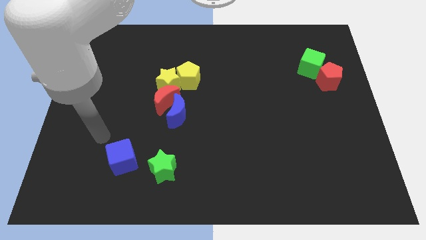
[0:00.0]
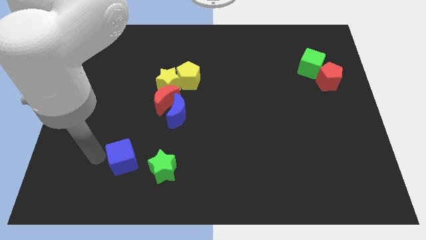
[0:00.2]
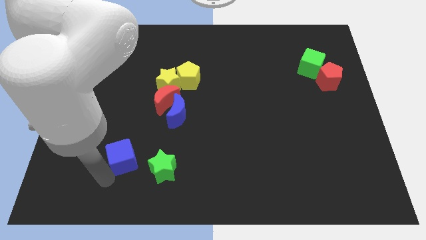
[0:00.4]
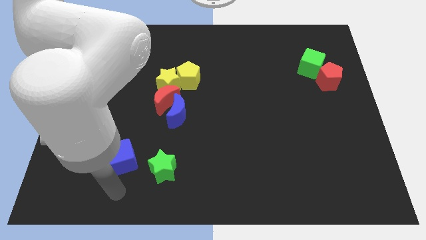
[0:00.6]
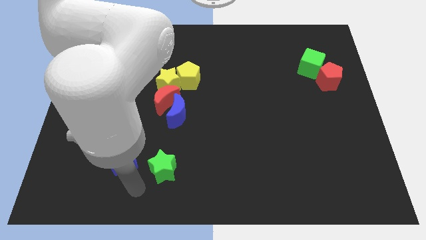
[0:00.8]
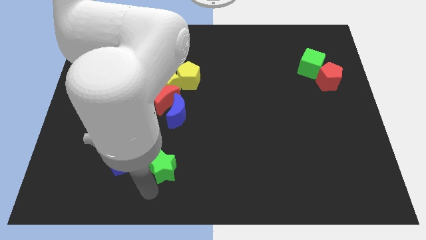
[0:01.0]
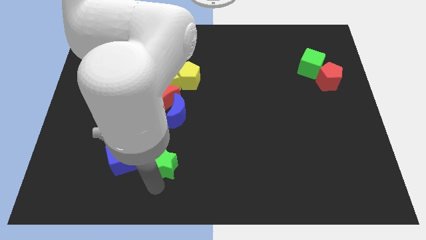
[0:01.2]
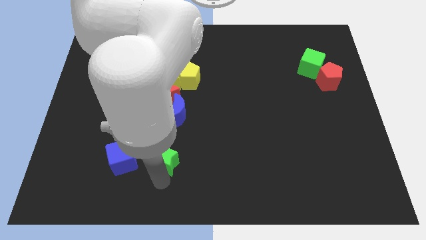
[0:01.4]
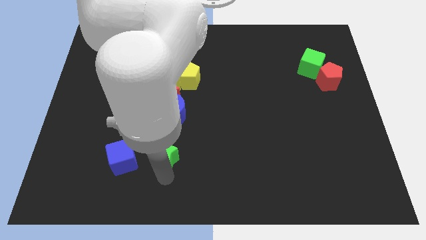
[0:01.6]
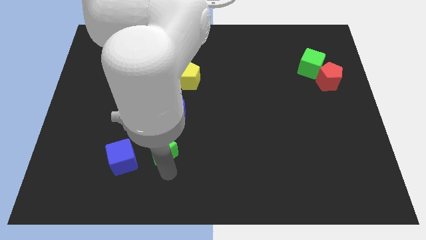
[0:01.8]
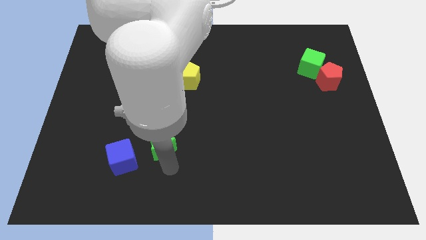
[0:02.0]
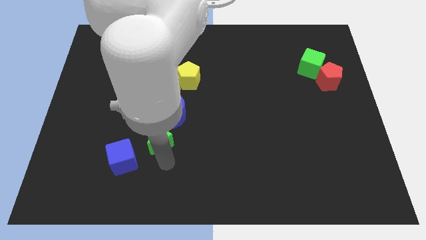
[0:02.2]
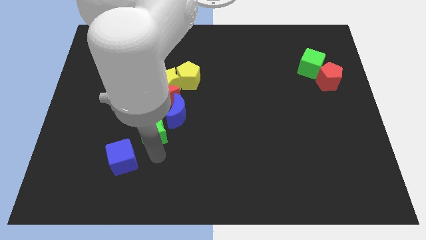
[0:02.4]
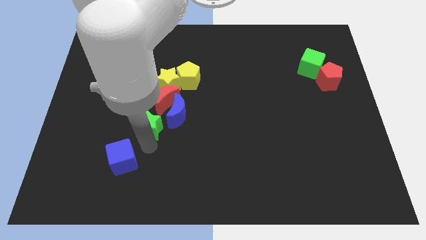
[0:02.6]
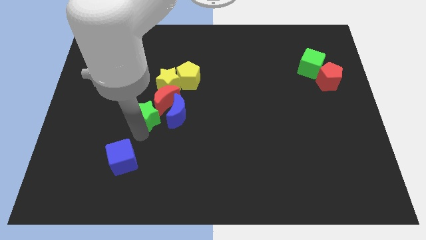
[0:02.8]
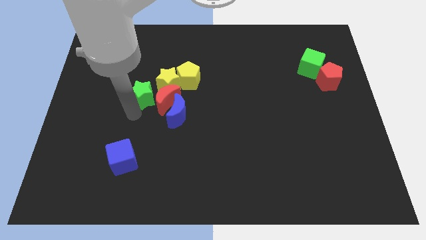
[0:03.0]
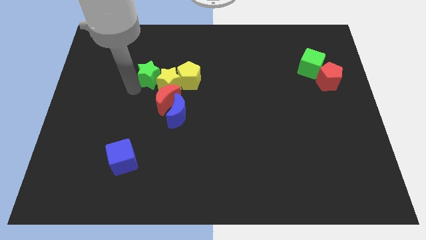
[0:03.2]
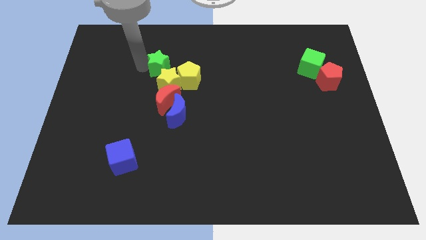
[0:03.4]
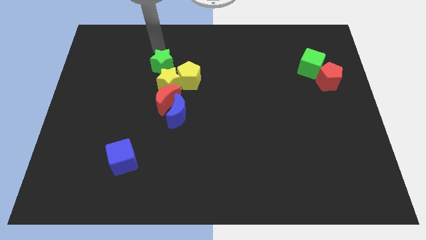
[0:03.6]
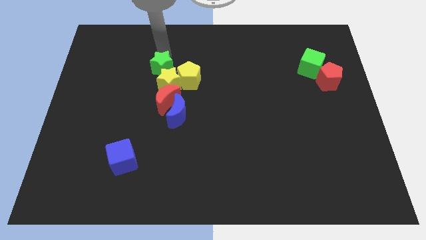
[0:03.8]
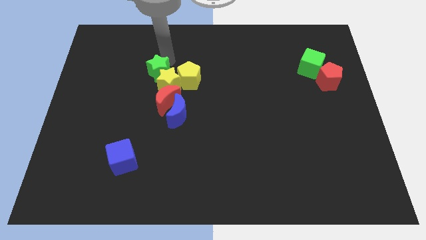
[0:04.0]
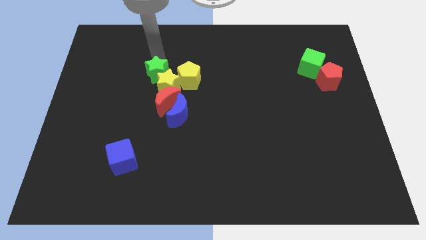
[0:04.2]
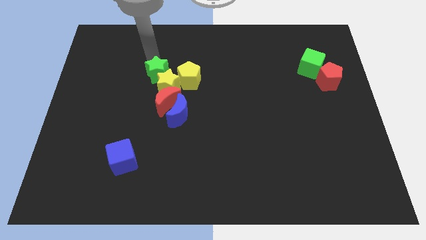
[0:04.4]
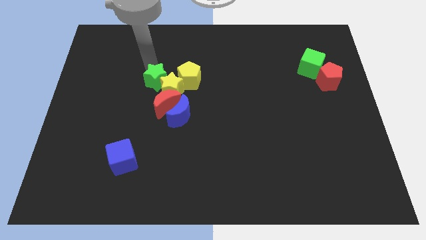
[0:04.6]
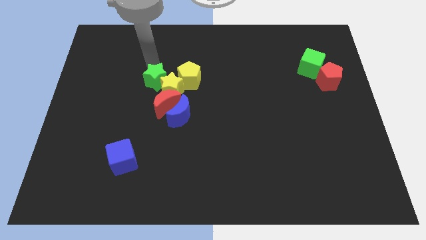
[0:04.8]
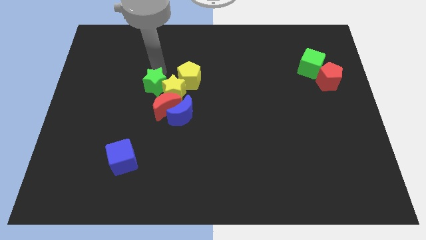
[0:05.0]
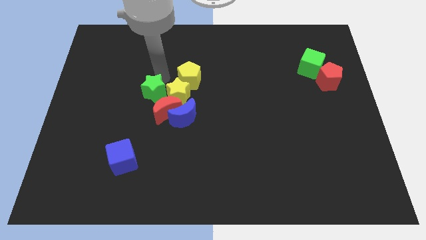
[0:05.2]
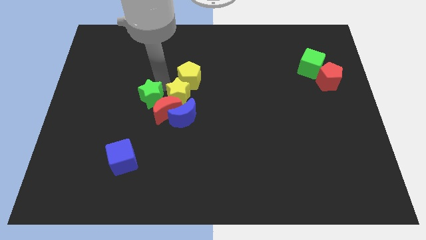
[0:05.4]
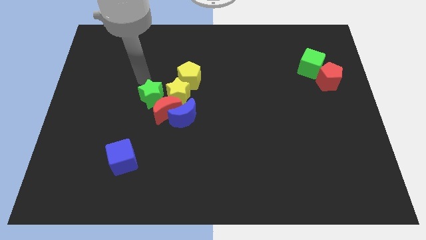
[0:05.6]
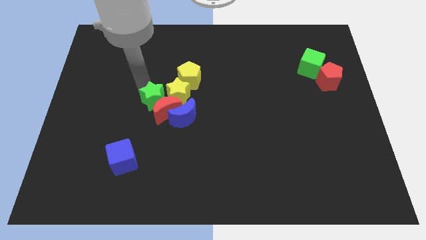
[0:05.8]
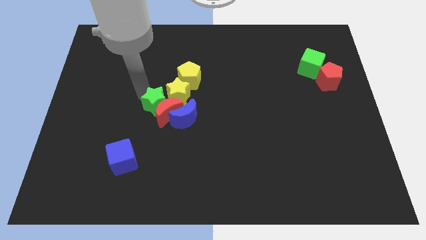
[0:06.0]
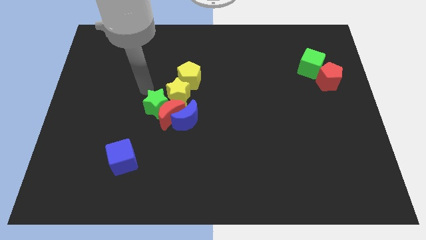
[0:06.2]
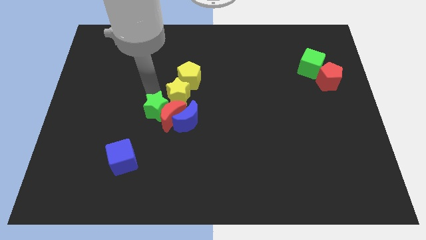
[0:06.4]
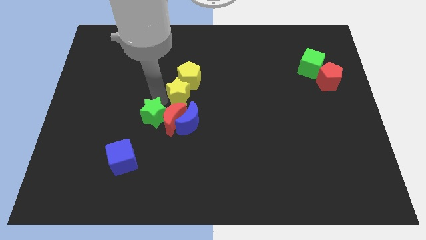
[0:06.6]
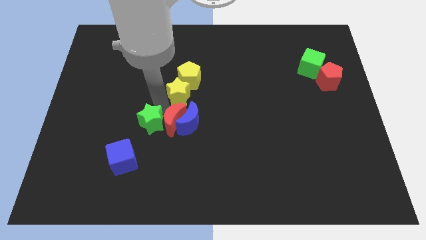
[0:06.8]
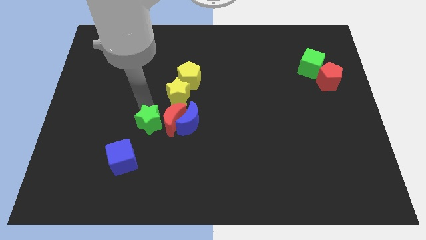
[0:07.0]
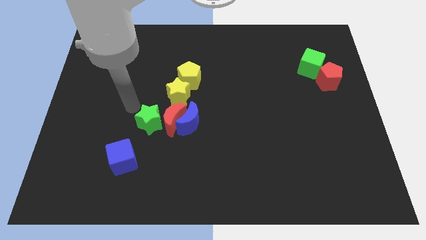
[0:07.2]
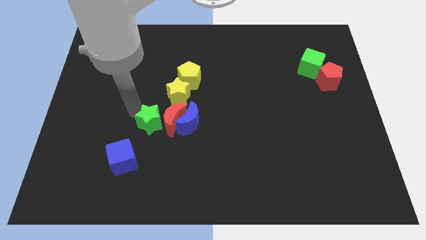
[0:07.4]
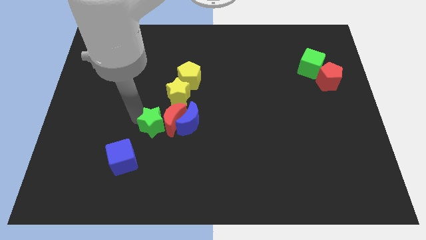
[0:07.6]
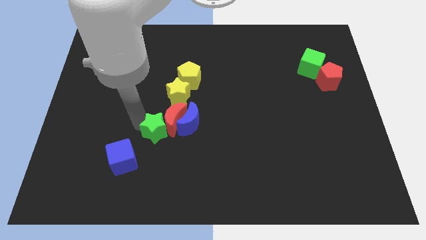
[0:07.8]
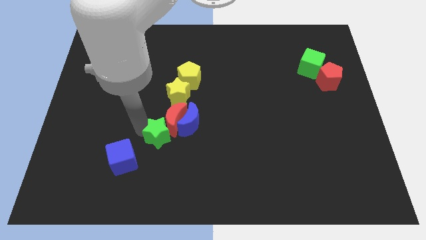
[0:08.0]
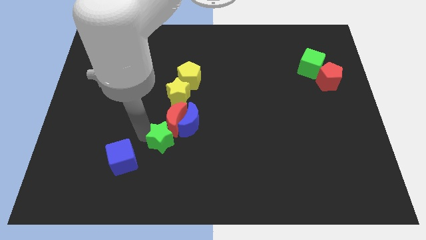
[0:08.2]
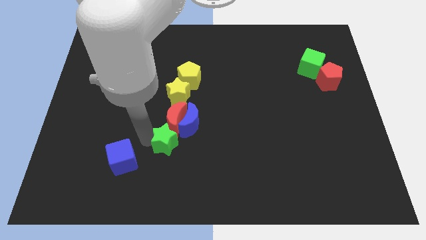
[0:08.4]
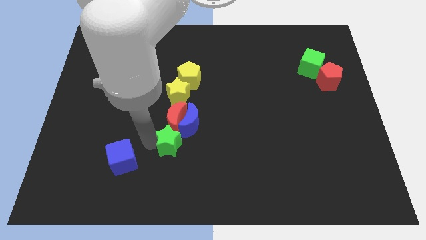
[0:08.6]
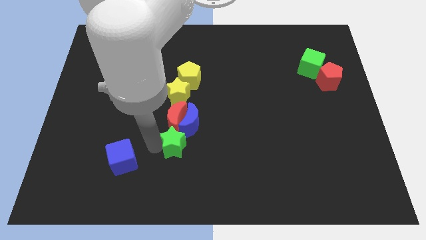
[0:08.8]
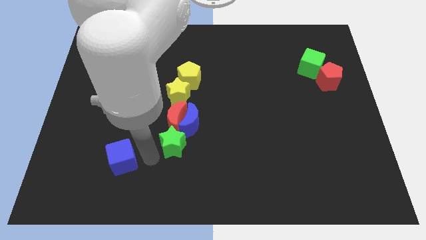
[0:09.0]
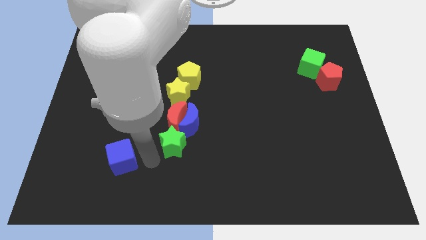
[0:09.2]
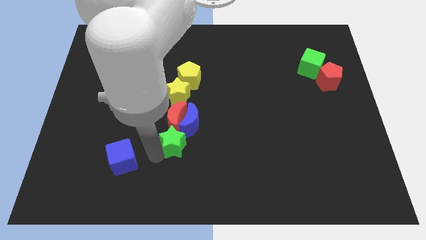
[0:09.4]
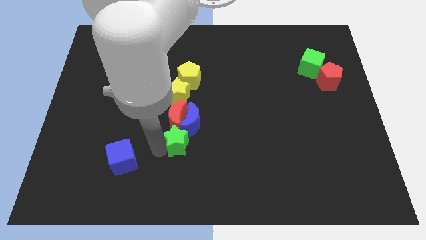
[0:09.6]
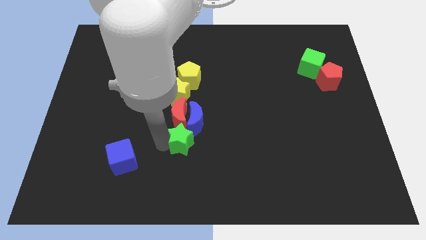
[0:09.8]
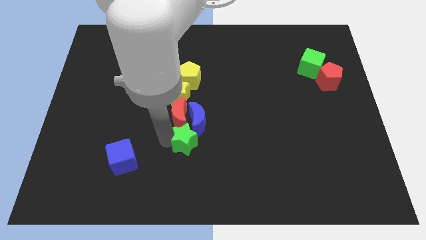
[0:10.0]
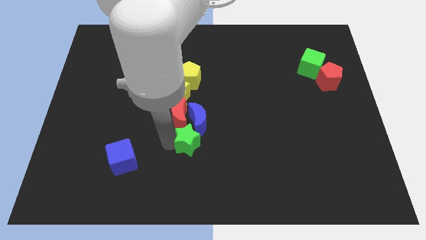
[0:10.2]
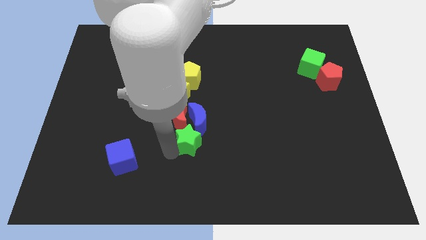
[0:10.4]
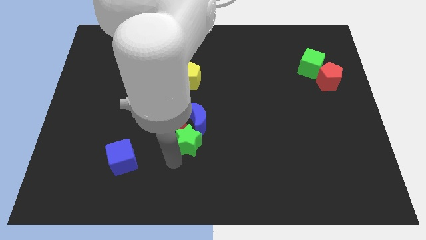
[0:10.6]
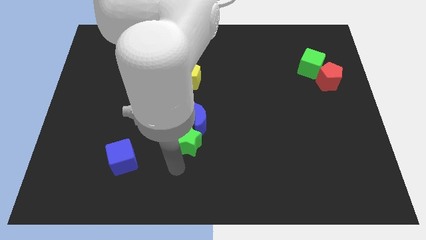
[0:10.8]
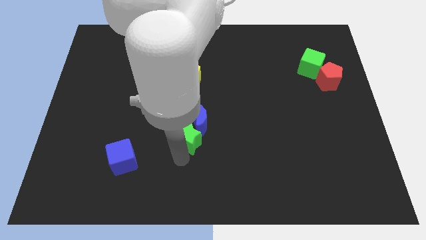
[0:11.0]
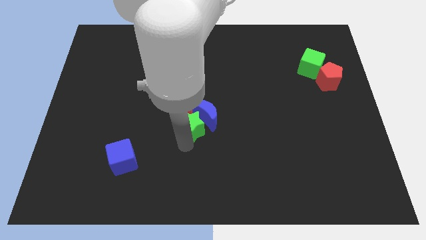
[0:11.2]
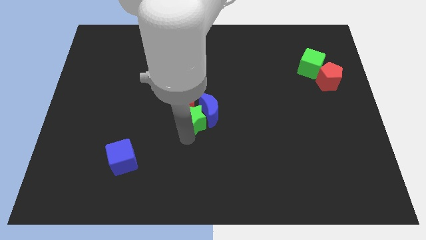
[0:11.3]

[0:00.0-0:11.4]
slide the green star to the right of the red moon

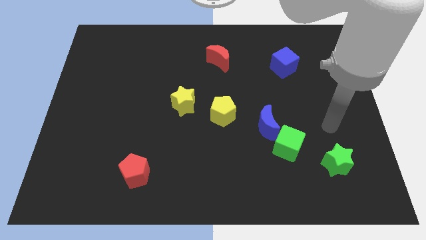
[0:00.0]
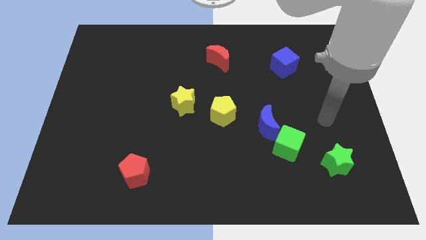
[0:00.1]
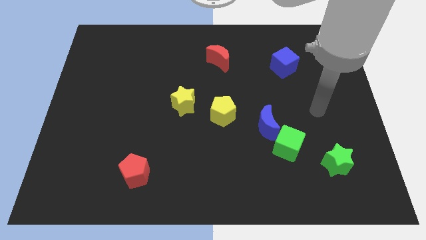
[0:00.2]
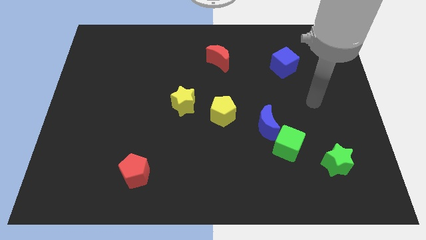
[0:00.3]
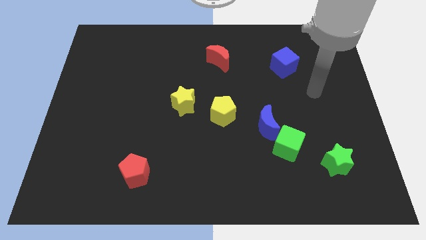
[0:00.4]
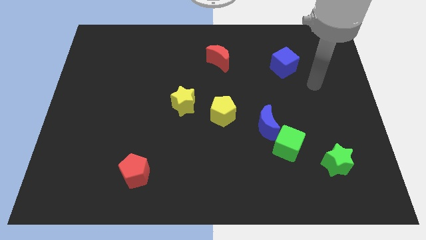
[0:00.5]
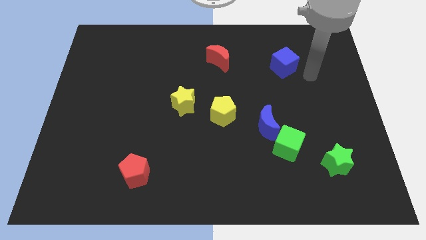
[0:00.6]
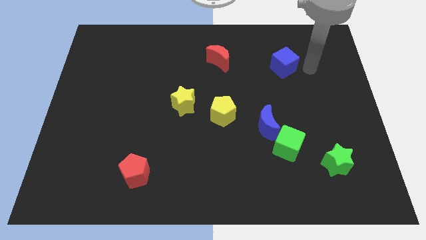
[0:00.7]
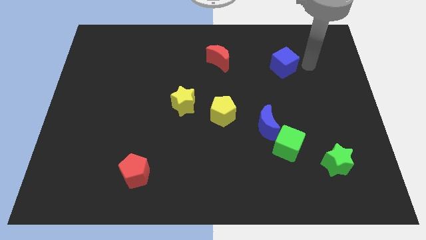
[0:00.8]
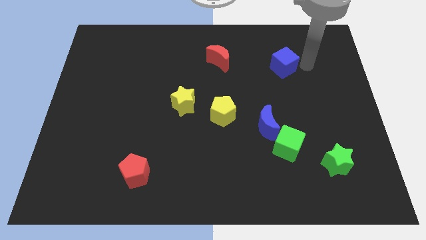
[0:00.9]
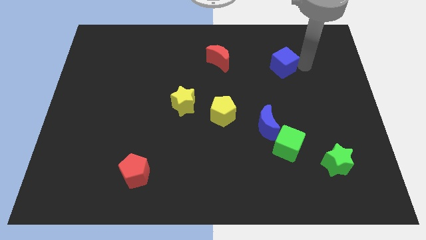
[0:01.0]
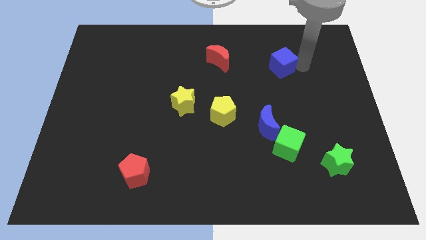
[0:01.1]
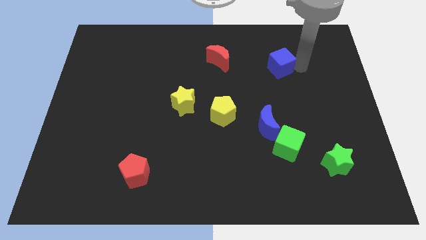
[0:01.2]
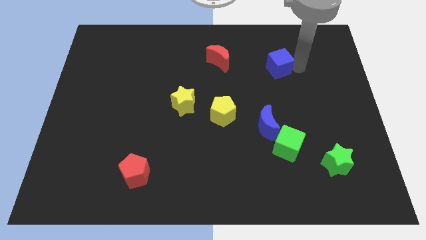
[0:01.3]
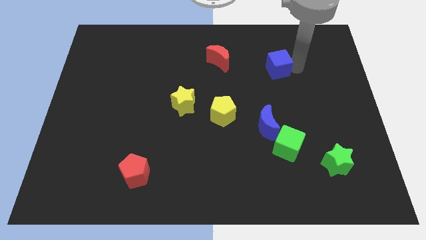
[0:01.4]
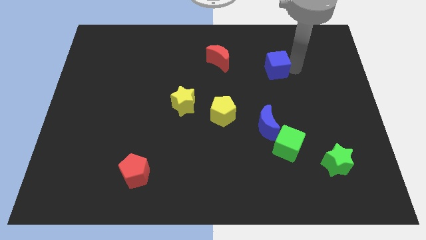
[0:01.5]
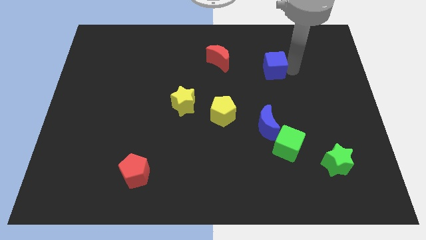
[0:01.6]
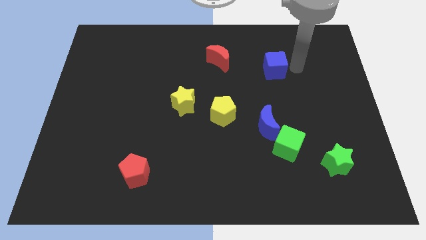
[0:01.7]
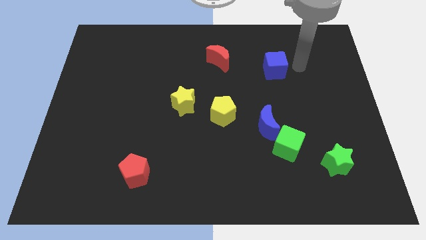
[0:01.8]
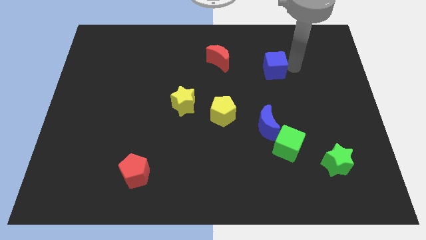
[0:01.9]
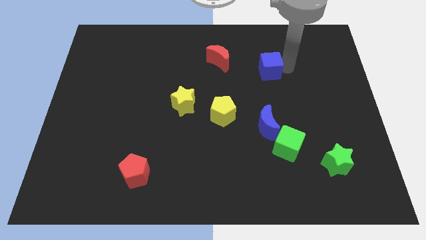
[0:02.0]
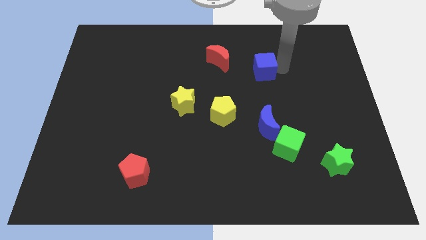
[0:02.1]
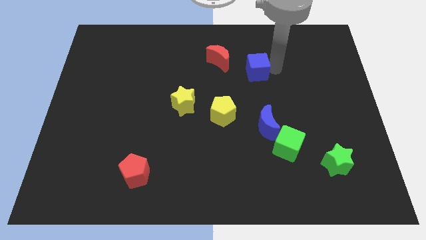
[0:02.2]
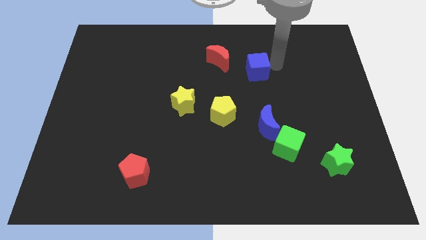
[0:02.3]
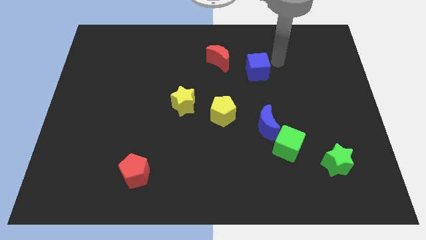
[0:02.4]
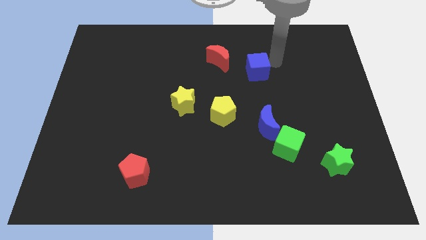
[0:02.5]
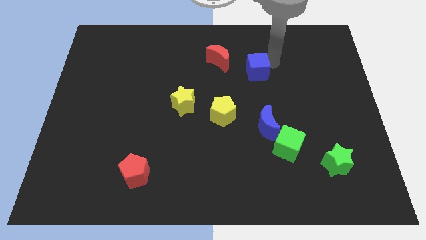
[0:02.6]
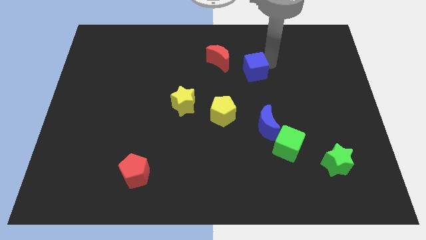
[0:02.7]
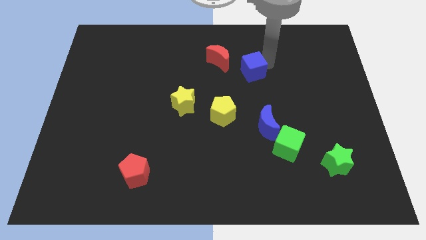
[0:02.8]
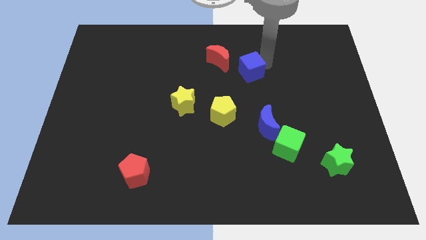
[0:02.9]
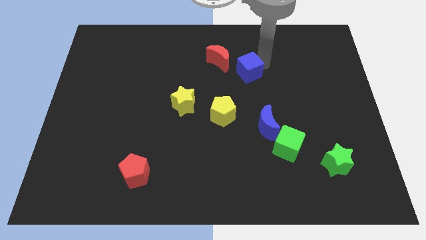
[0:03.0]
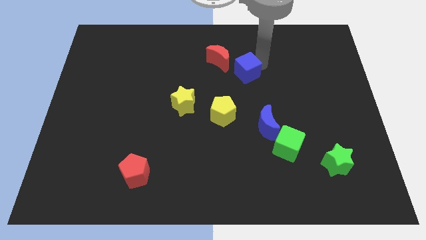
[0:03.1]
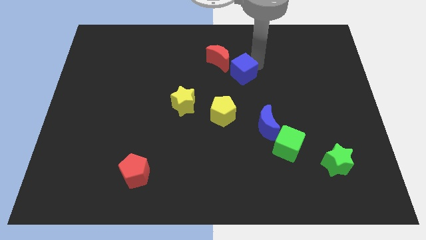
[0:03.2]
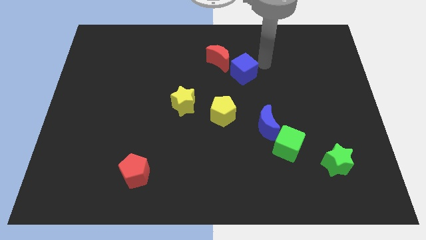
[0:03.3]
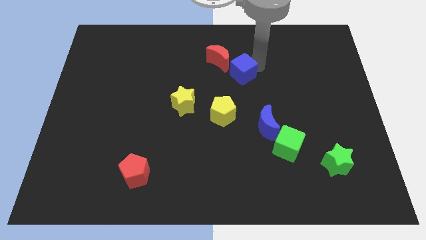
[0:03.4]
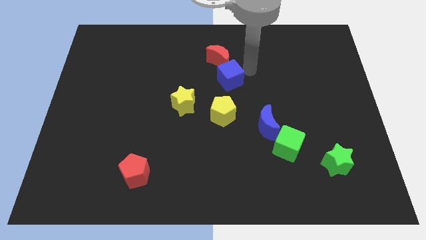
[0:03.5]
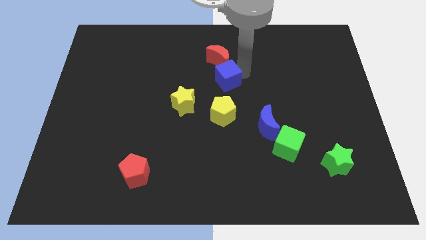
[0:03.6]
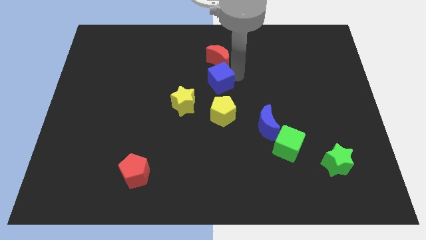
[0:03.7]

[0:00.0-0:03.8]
push the blue cube diagonally up and to the right of the yellow star
